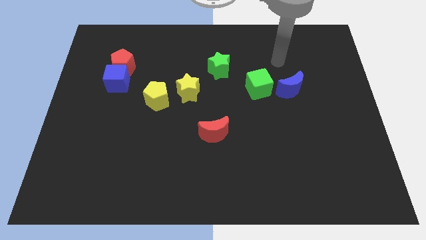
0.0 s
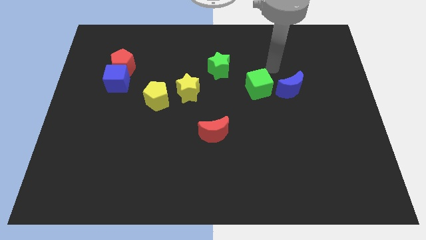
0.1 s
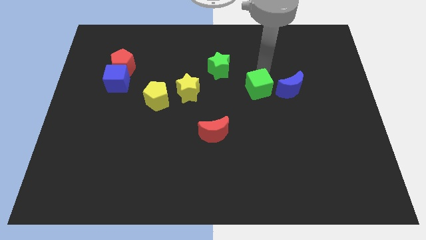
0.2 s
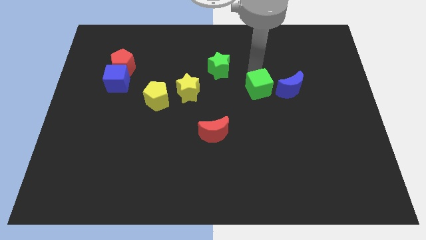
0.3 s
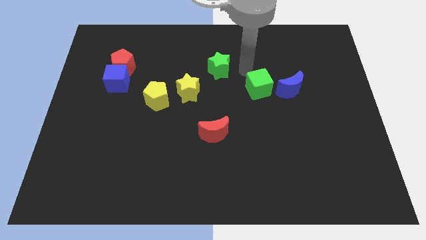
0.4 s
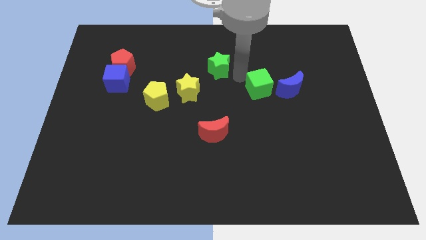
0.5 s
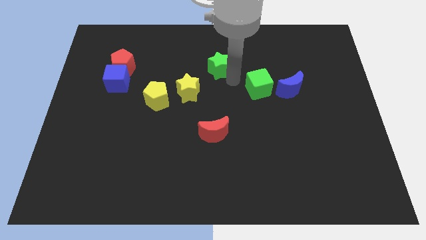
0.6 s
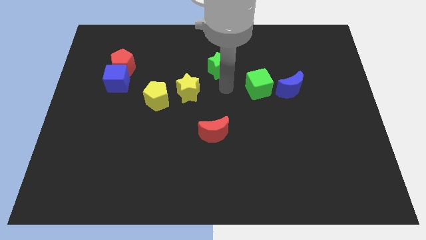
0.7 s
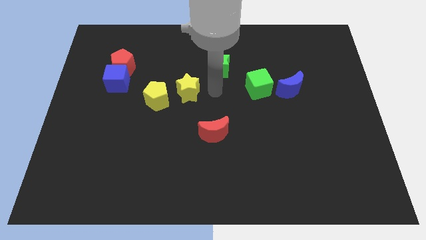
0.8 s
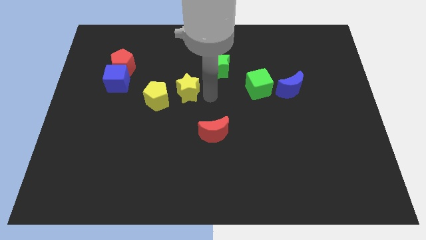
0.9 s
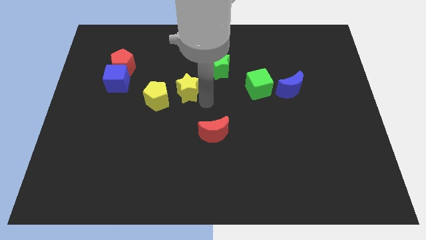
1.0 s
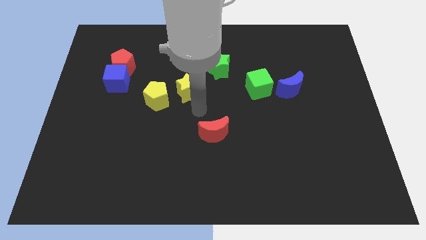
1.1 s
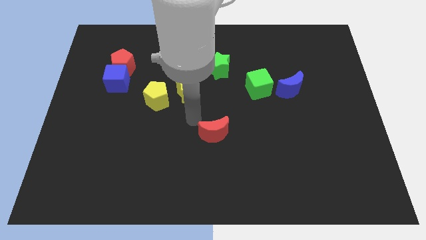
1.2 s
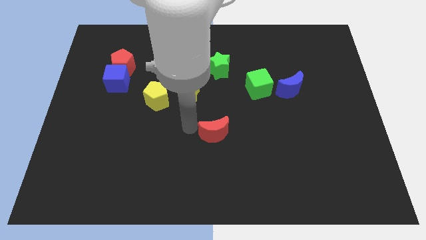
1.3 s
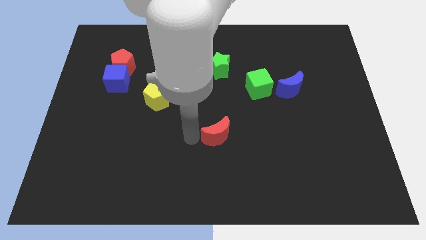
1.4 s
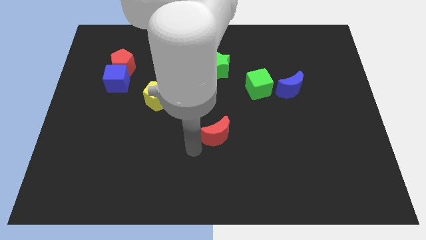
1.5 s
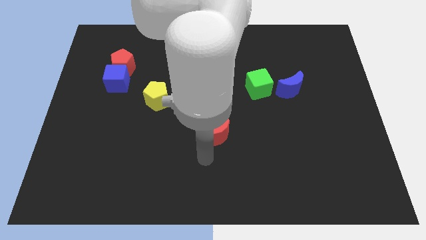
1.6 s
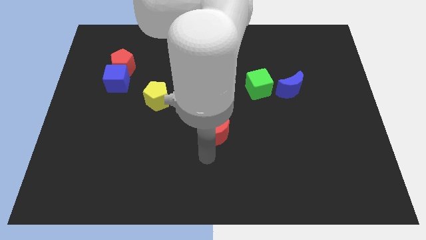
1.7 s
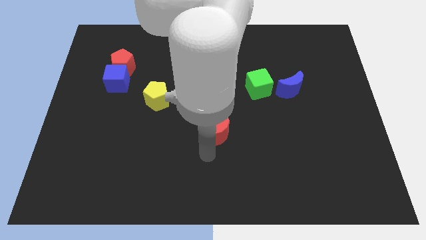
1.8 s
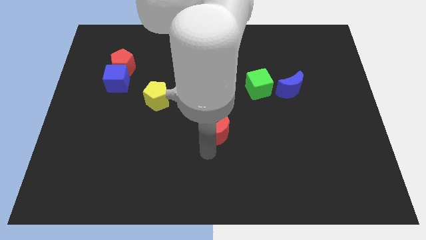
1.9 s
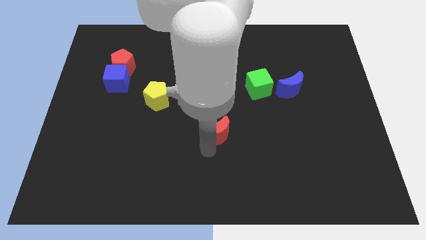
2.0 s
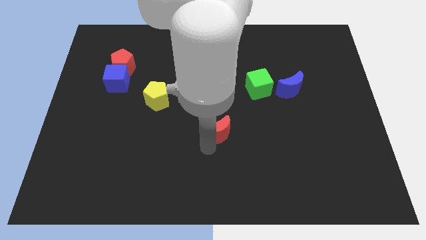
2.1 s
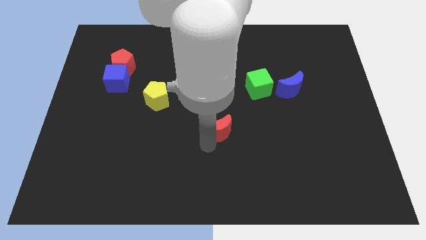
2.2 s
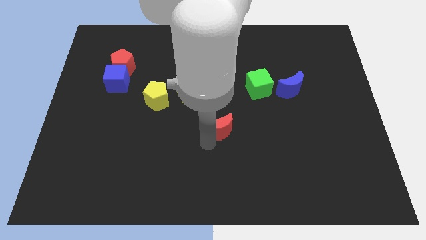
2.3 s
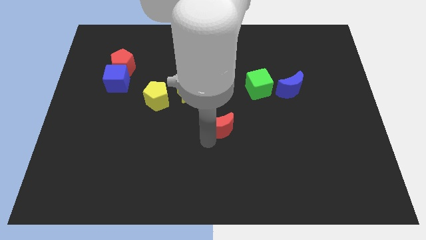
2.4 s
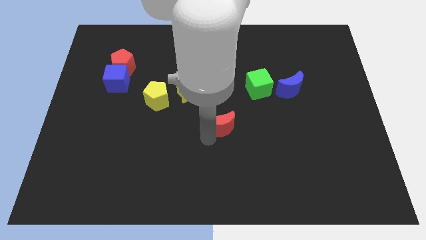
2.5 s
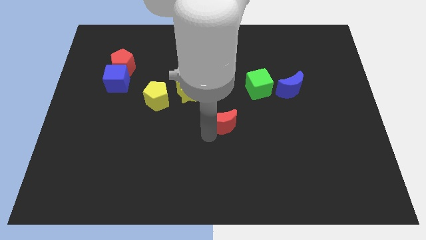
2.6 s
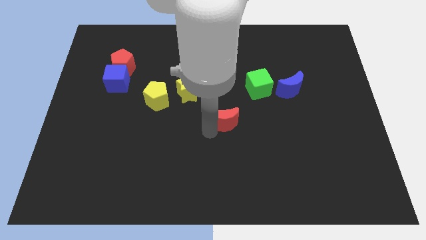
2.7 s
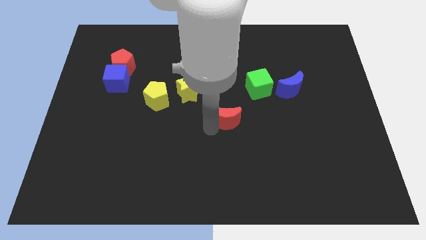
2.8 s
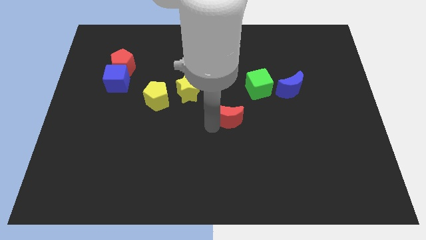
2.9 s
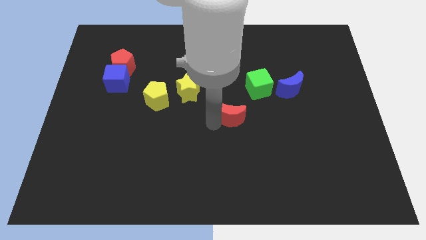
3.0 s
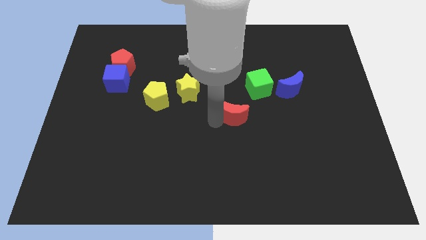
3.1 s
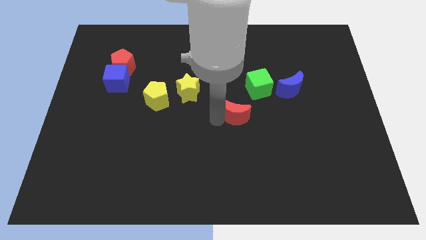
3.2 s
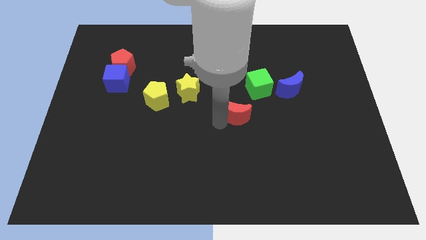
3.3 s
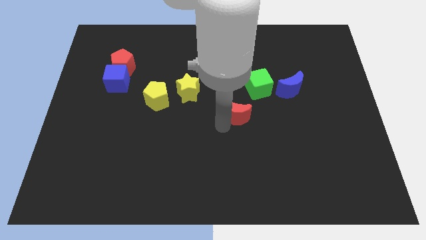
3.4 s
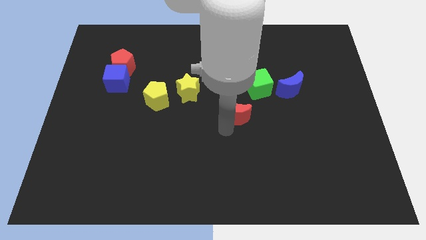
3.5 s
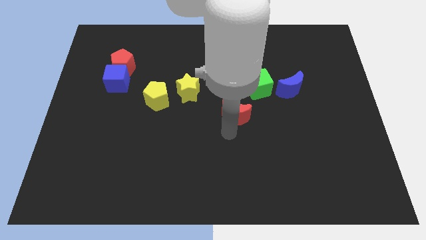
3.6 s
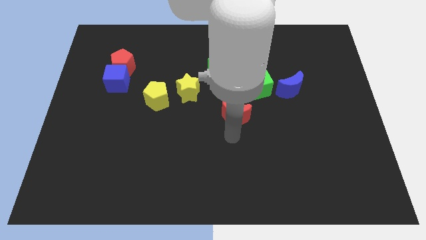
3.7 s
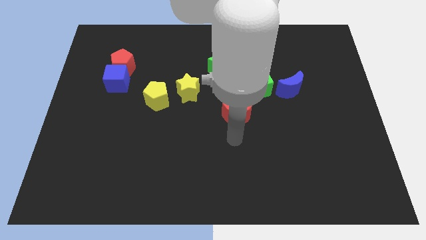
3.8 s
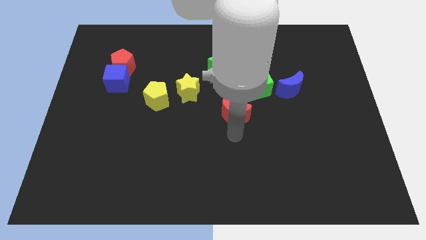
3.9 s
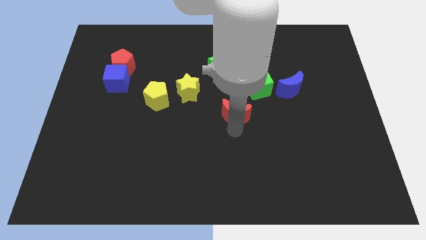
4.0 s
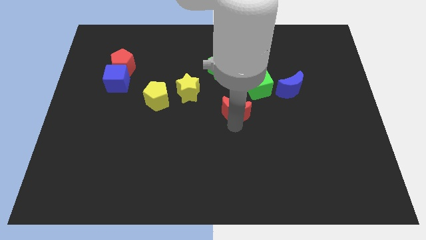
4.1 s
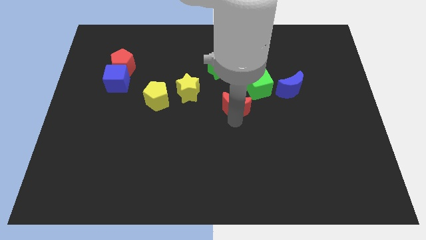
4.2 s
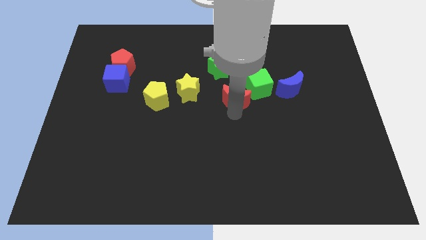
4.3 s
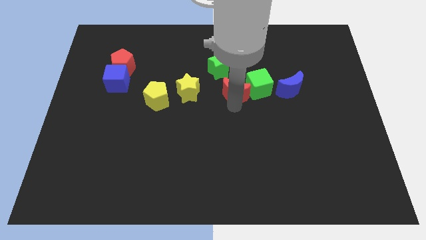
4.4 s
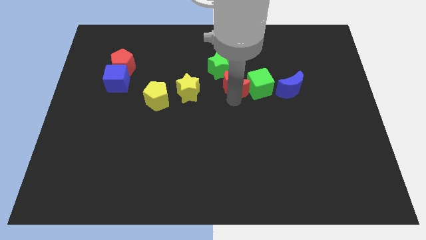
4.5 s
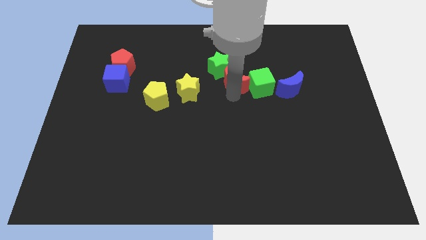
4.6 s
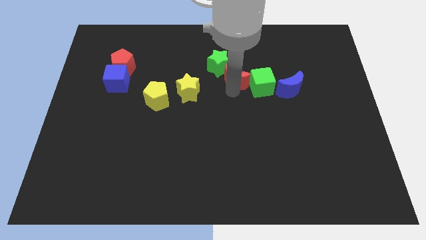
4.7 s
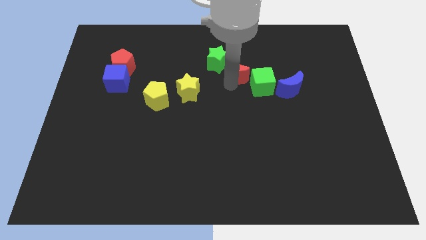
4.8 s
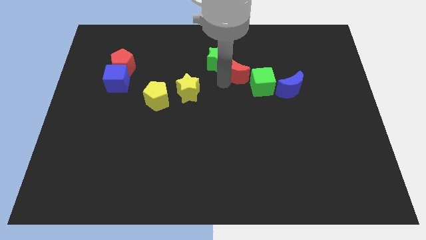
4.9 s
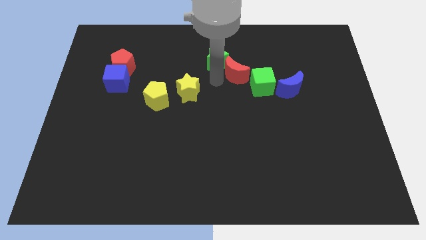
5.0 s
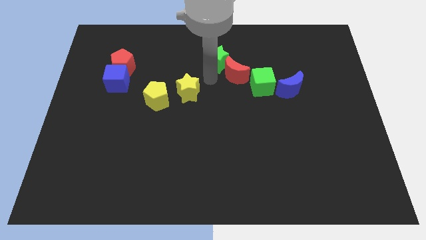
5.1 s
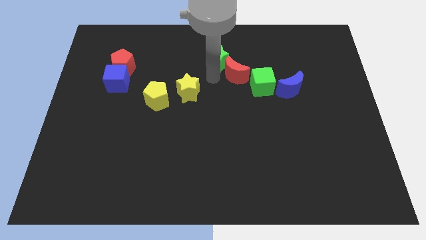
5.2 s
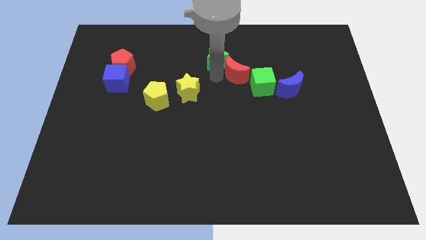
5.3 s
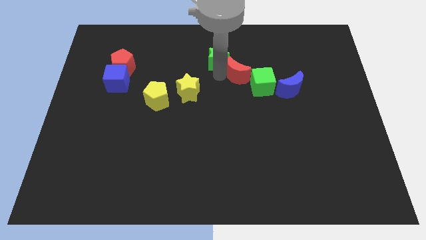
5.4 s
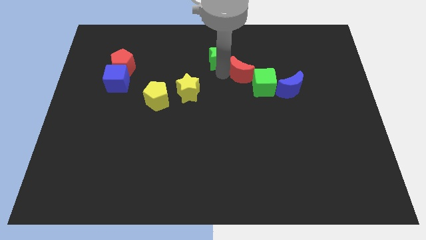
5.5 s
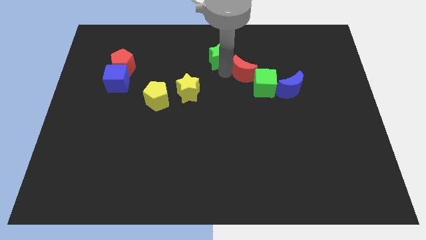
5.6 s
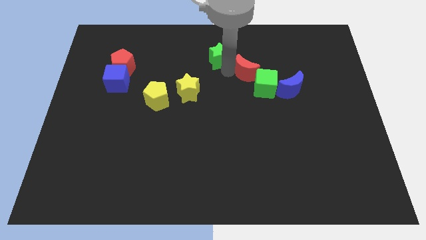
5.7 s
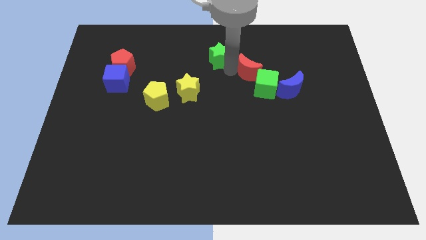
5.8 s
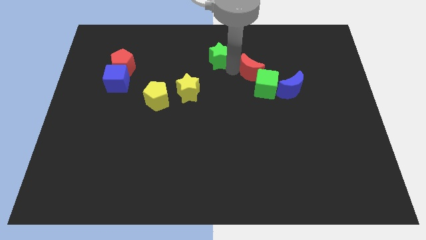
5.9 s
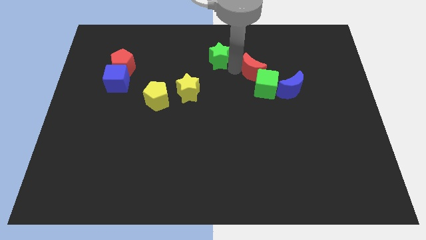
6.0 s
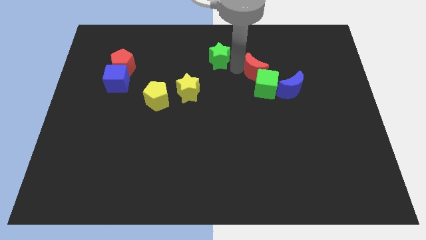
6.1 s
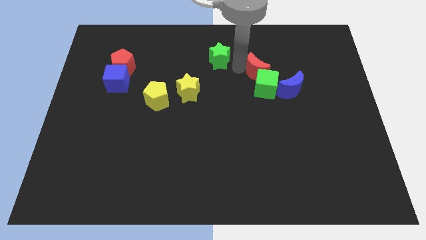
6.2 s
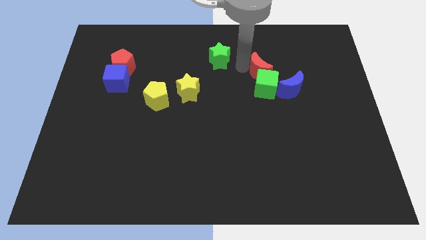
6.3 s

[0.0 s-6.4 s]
move the red moon diagonally upwards and to the right

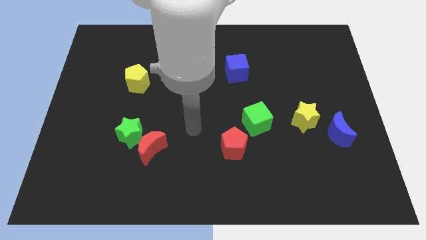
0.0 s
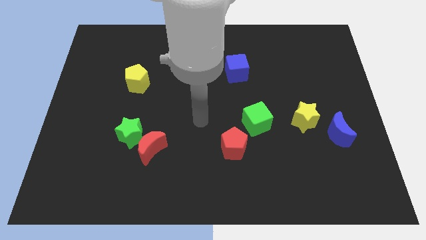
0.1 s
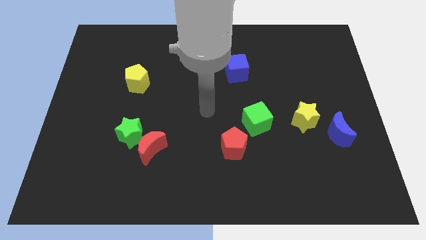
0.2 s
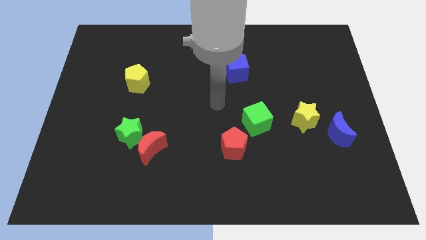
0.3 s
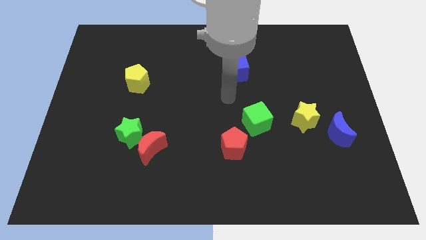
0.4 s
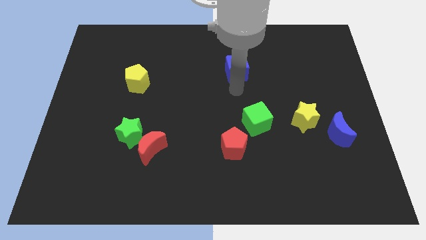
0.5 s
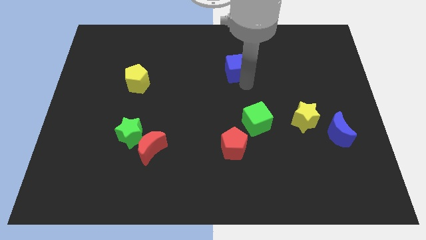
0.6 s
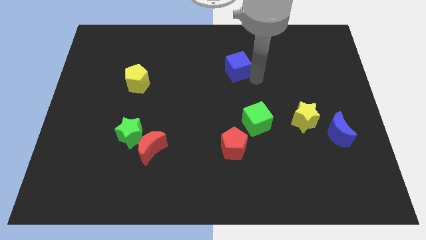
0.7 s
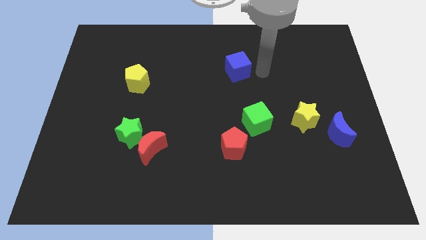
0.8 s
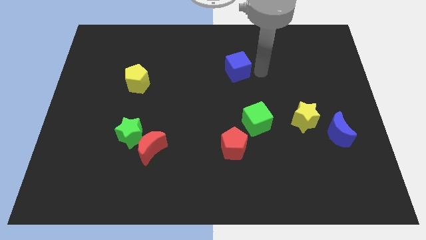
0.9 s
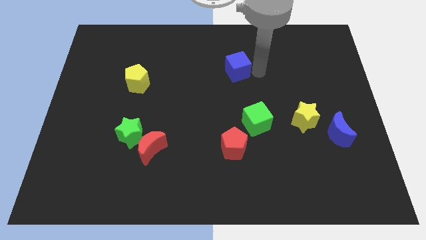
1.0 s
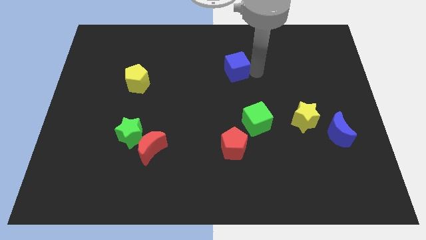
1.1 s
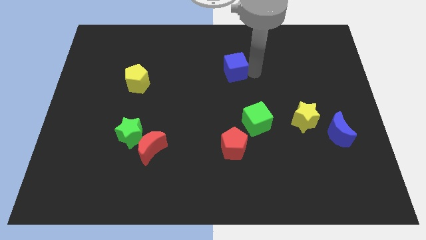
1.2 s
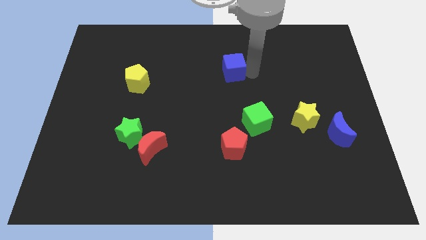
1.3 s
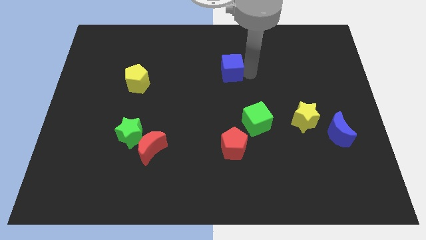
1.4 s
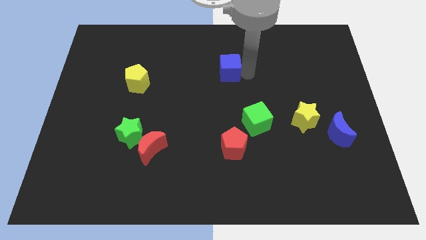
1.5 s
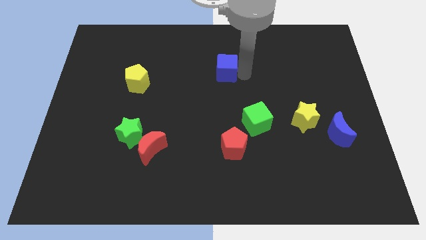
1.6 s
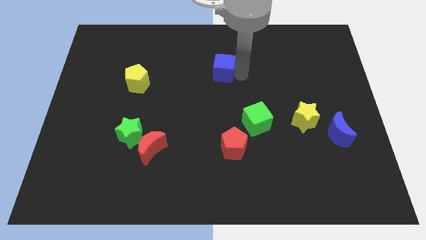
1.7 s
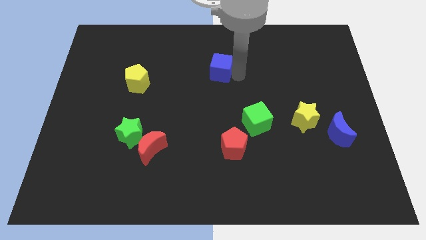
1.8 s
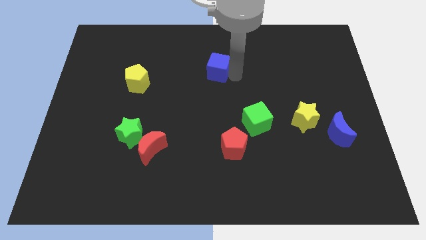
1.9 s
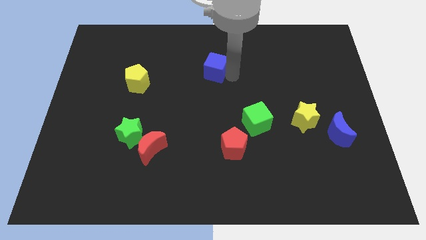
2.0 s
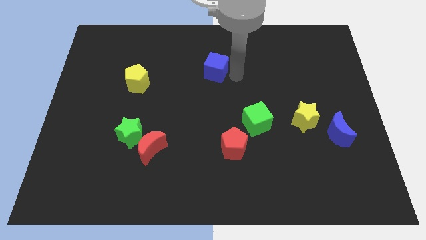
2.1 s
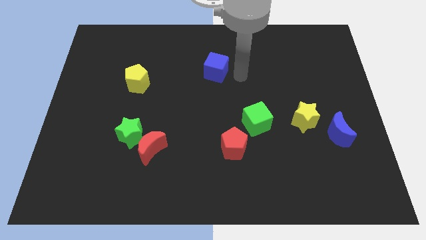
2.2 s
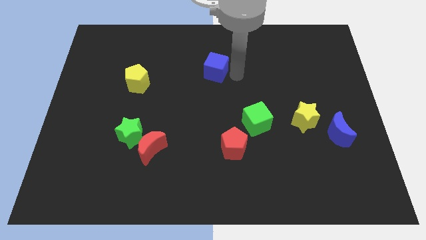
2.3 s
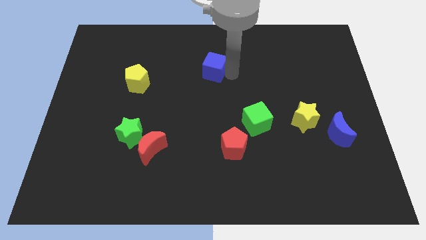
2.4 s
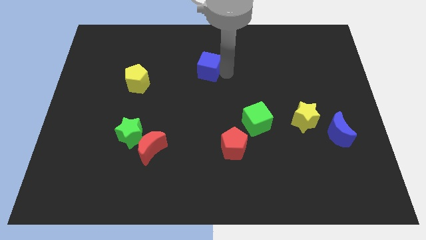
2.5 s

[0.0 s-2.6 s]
move the blue cube a bit to the left
